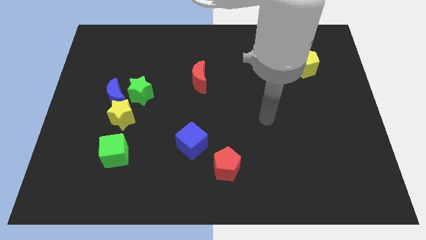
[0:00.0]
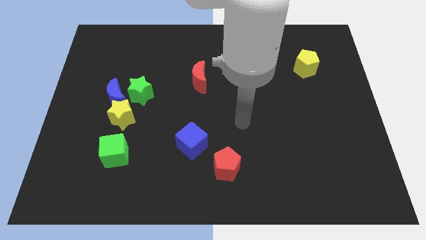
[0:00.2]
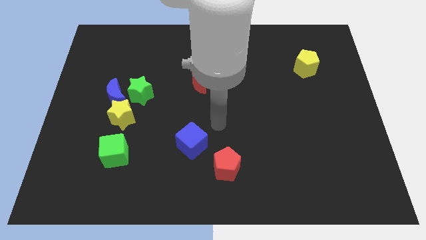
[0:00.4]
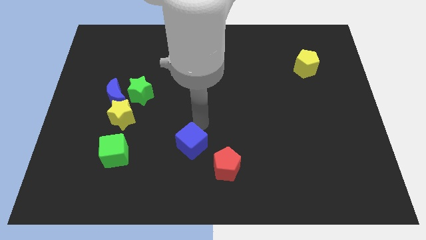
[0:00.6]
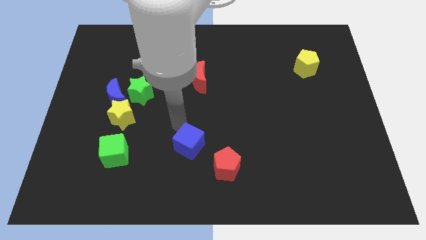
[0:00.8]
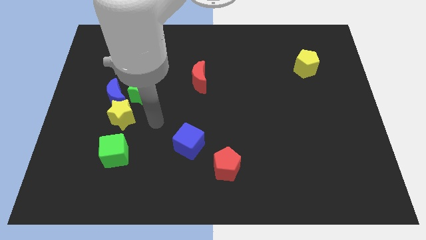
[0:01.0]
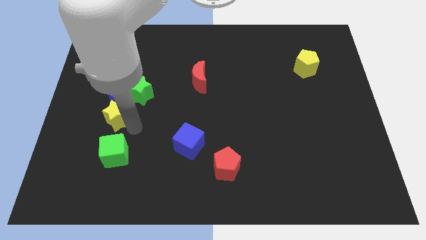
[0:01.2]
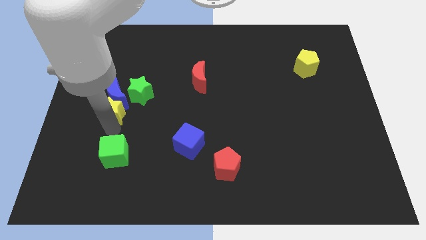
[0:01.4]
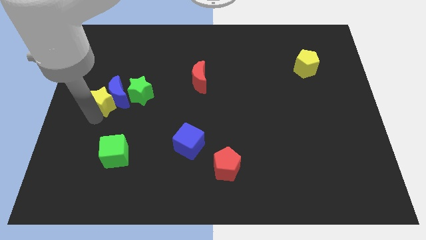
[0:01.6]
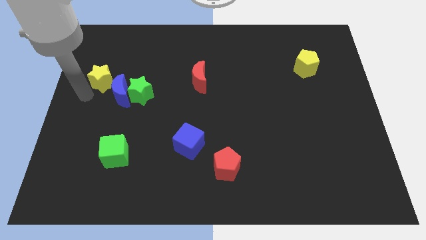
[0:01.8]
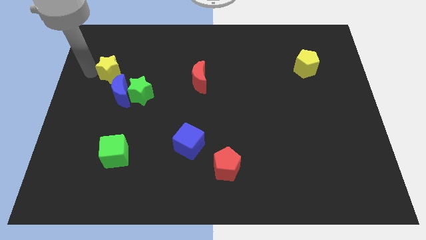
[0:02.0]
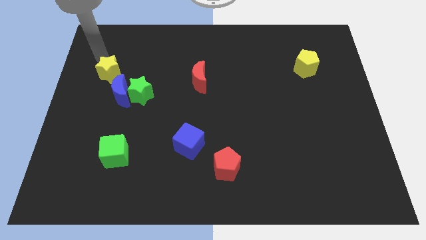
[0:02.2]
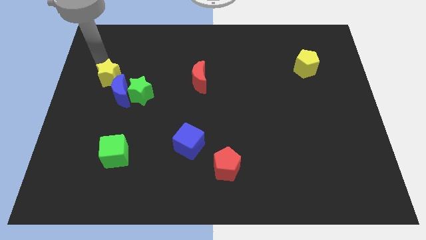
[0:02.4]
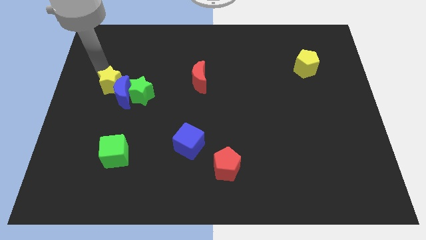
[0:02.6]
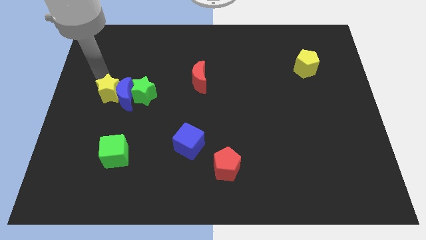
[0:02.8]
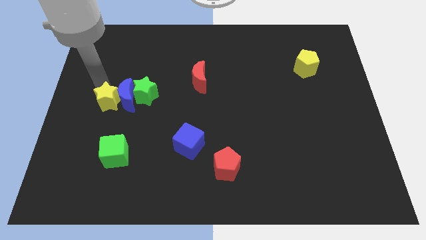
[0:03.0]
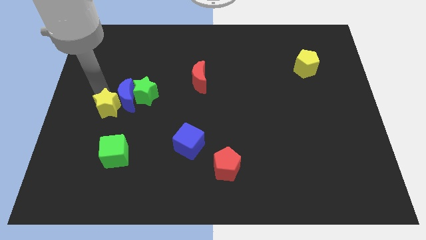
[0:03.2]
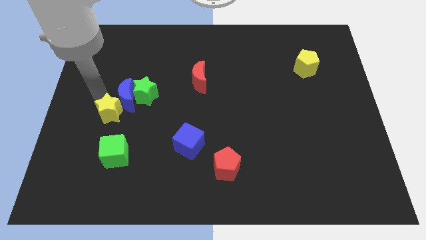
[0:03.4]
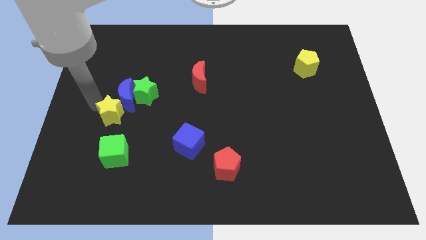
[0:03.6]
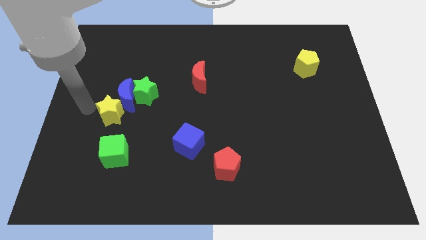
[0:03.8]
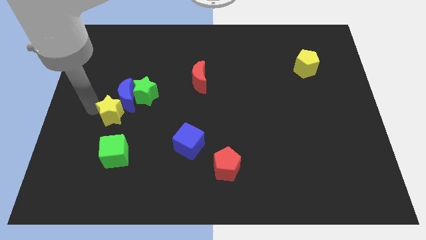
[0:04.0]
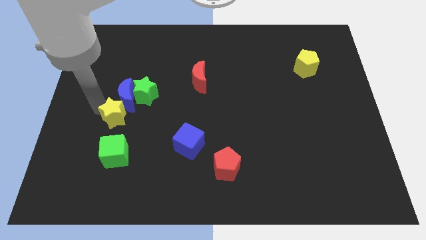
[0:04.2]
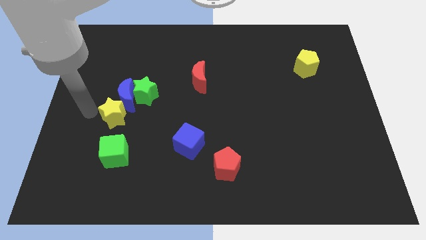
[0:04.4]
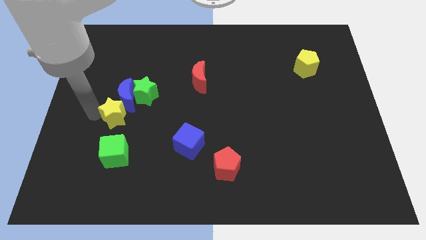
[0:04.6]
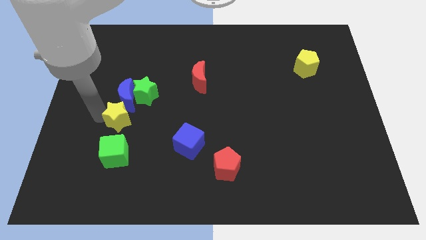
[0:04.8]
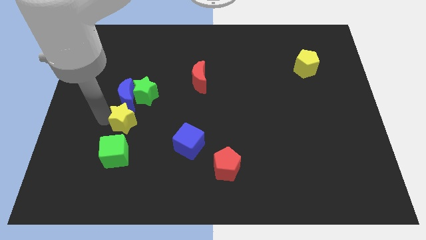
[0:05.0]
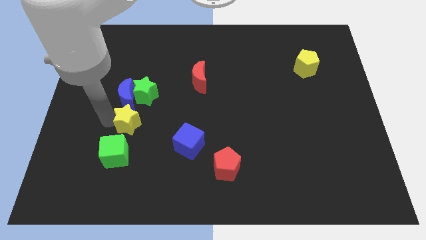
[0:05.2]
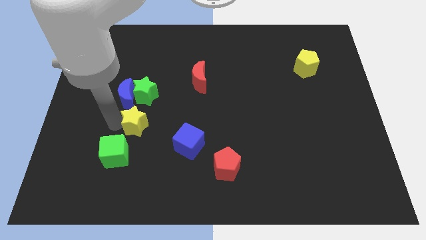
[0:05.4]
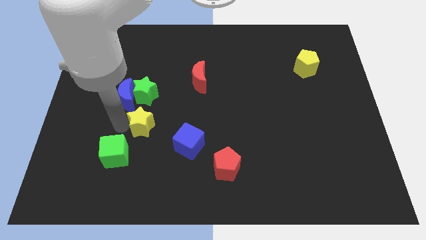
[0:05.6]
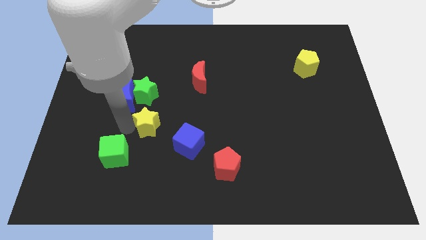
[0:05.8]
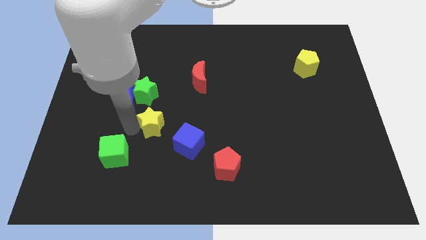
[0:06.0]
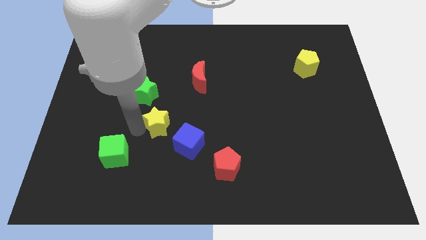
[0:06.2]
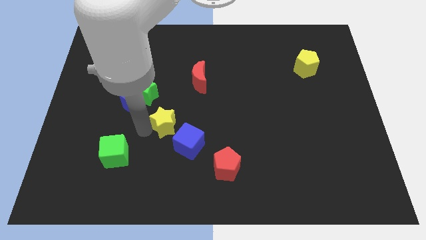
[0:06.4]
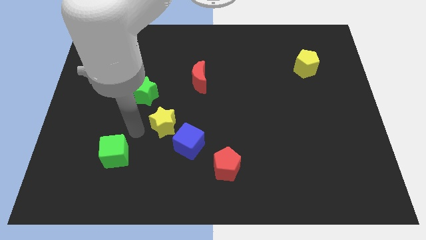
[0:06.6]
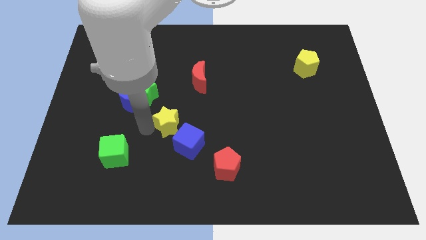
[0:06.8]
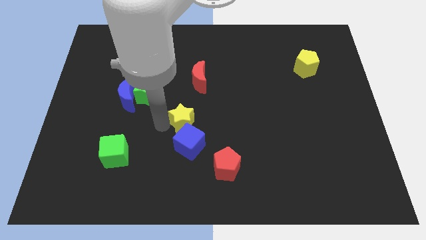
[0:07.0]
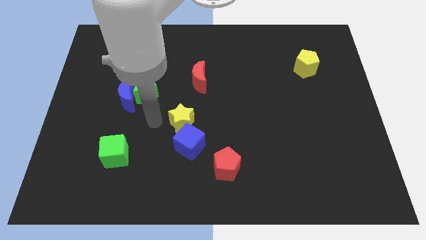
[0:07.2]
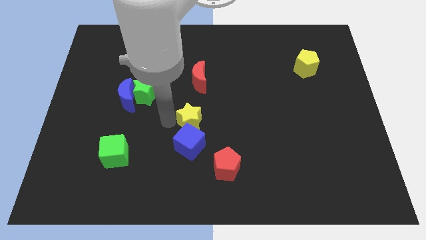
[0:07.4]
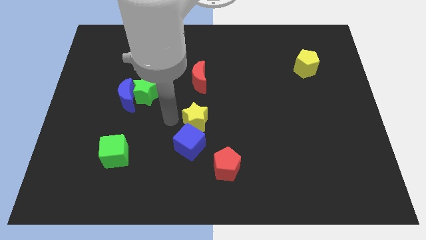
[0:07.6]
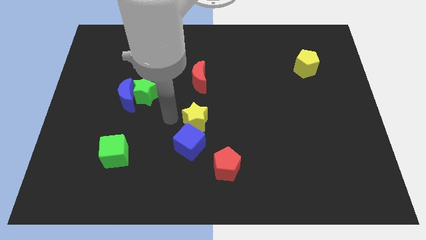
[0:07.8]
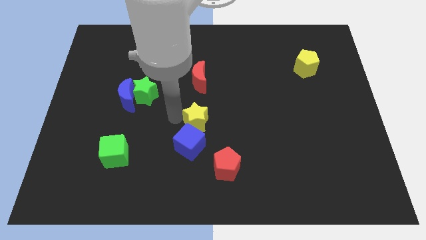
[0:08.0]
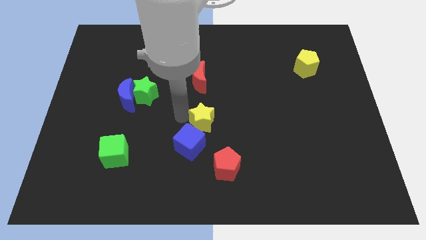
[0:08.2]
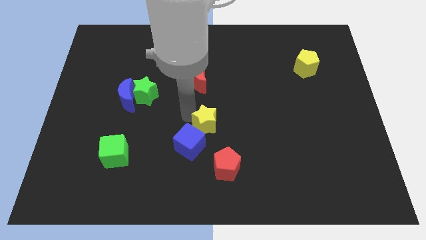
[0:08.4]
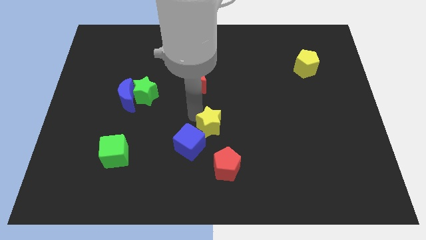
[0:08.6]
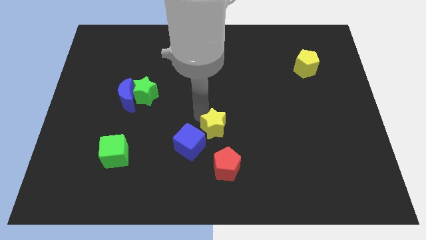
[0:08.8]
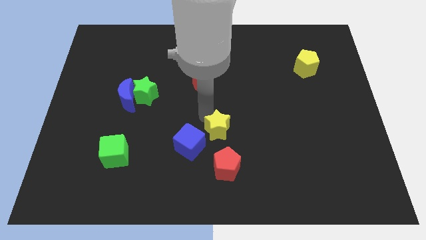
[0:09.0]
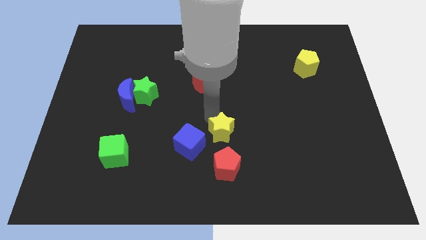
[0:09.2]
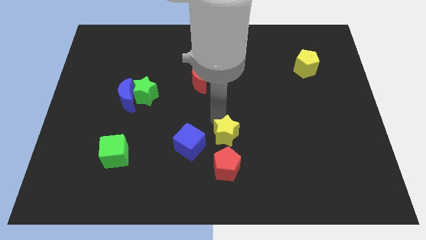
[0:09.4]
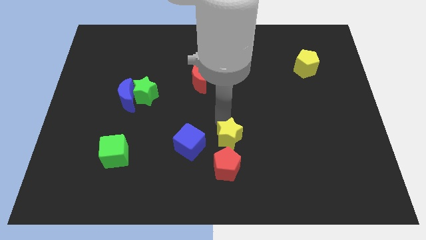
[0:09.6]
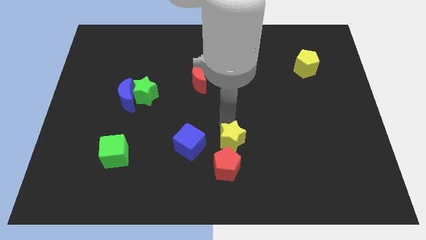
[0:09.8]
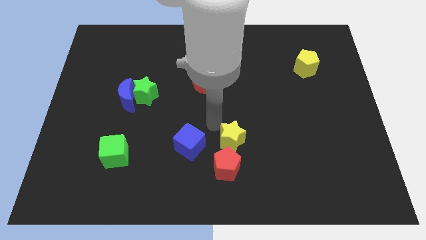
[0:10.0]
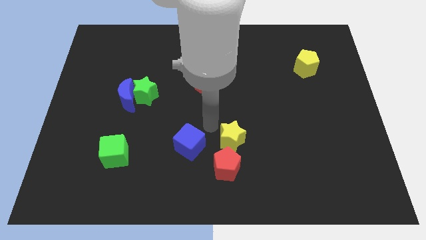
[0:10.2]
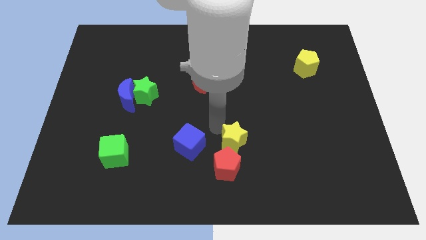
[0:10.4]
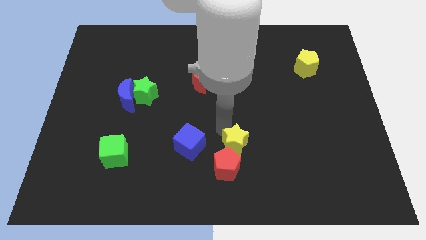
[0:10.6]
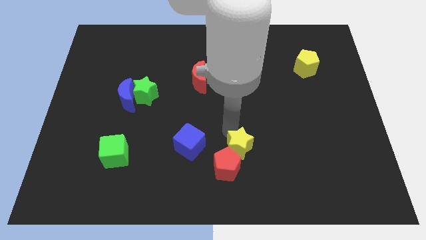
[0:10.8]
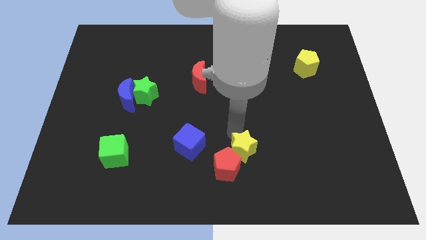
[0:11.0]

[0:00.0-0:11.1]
push the yellow star to the right of the red pentagon
